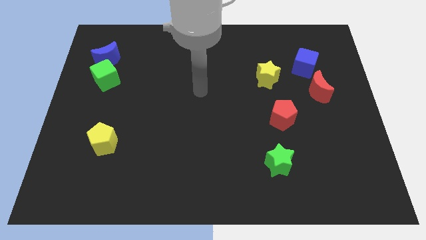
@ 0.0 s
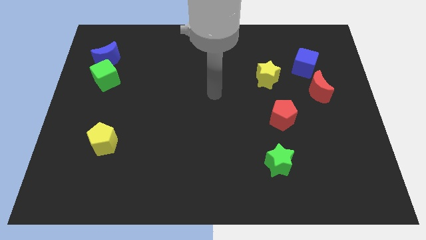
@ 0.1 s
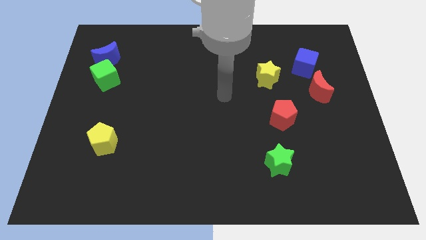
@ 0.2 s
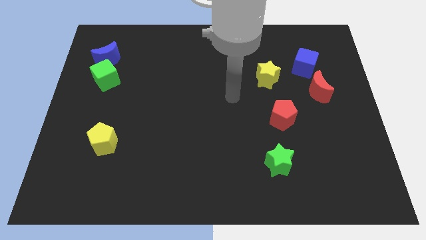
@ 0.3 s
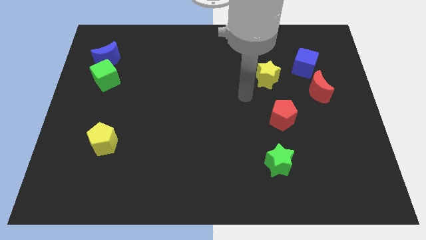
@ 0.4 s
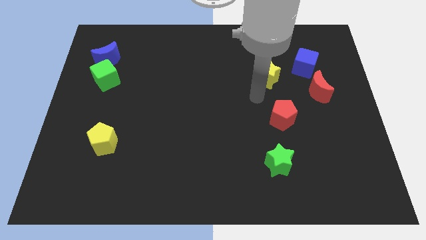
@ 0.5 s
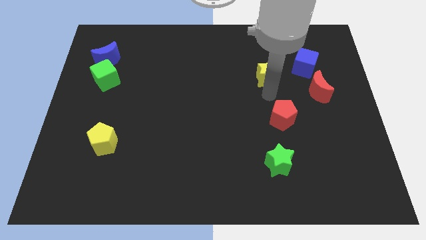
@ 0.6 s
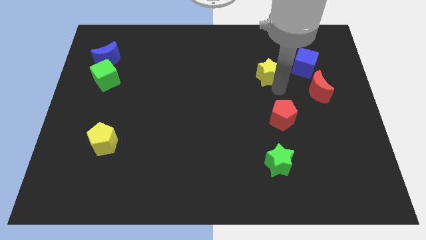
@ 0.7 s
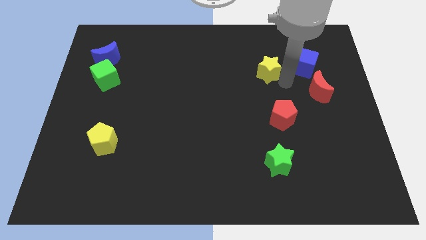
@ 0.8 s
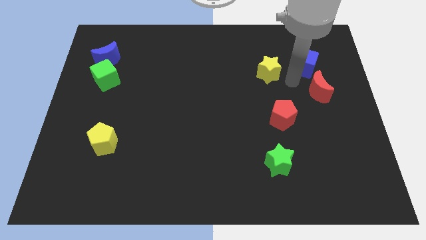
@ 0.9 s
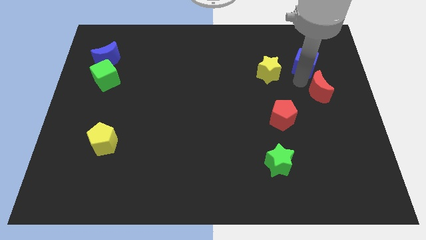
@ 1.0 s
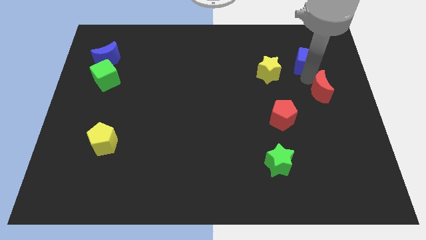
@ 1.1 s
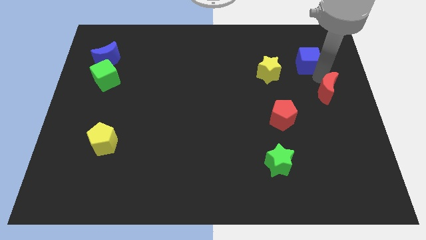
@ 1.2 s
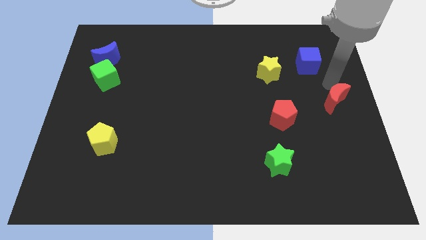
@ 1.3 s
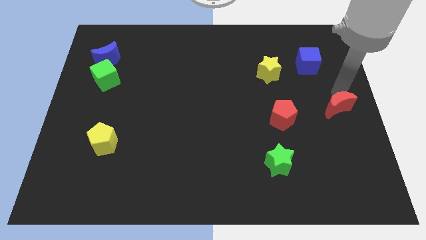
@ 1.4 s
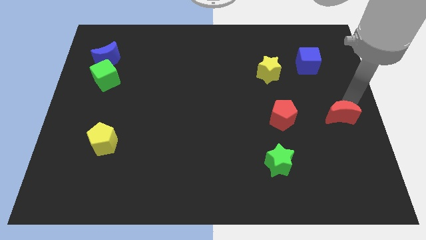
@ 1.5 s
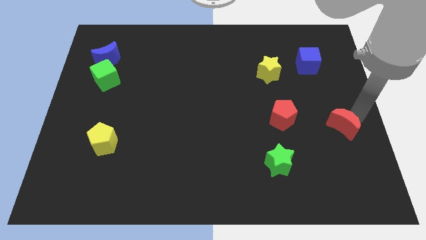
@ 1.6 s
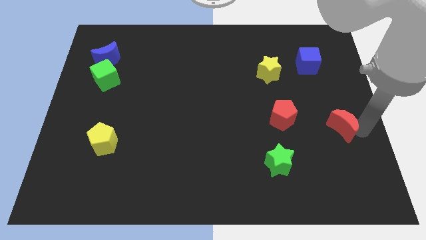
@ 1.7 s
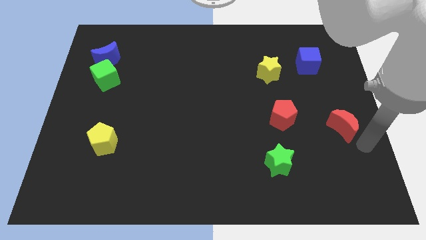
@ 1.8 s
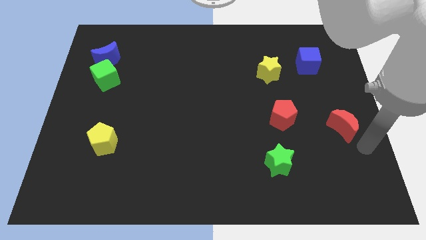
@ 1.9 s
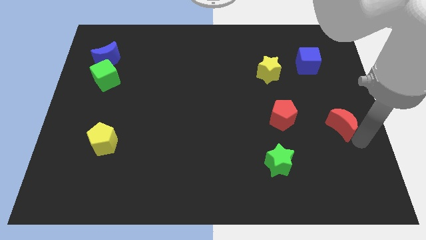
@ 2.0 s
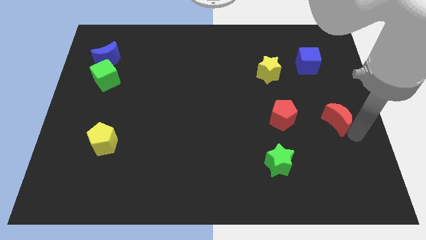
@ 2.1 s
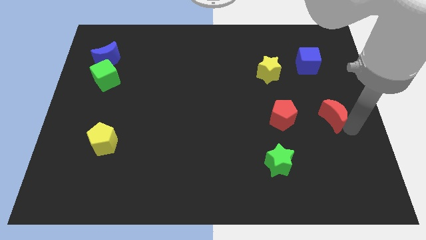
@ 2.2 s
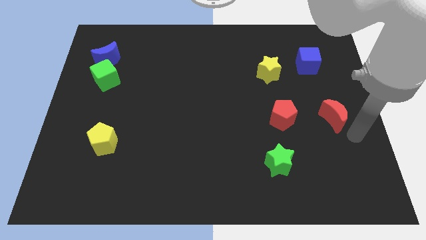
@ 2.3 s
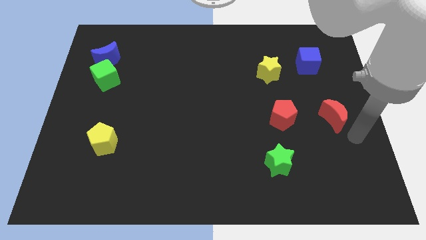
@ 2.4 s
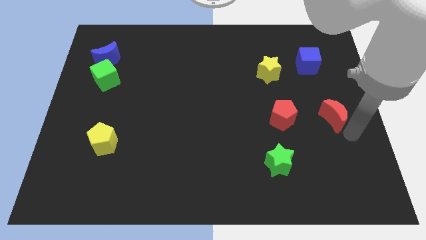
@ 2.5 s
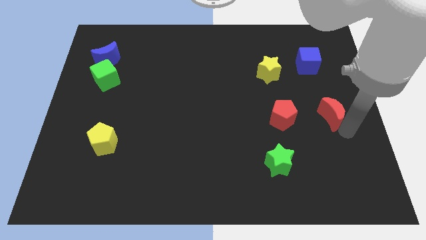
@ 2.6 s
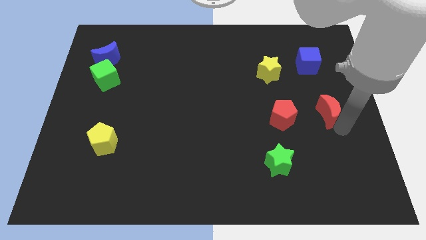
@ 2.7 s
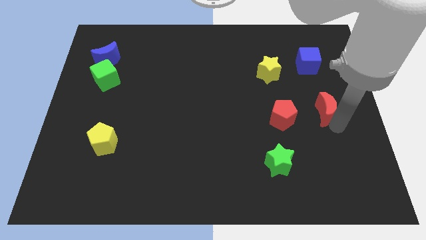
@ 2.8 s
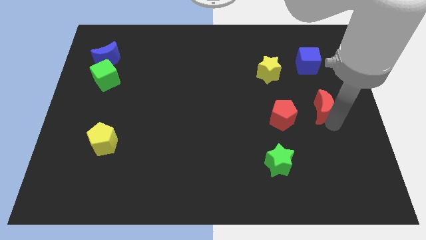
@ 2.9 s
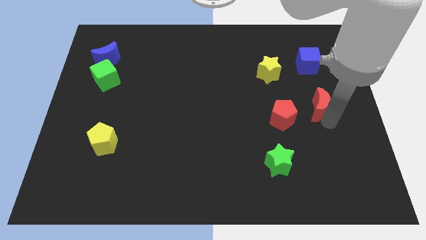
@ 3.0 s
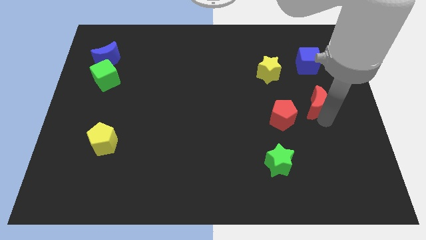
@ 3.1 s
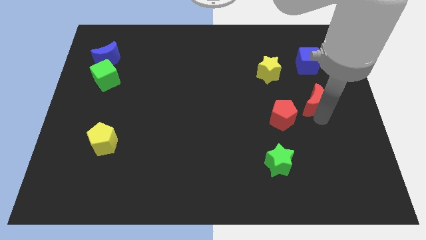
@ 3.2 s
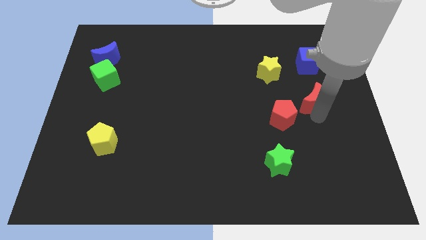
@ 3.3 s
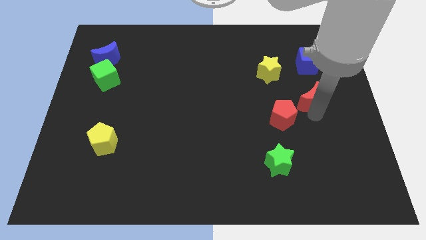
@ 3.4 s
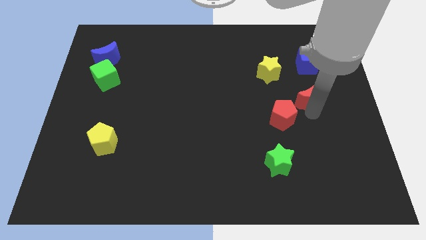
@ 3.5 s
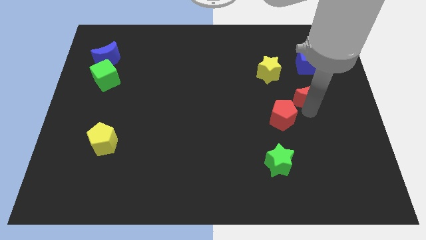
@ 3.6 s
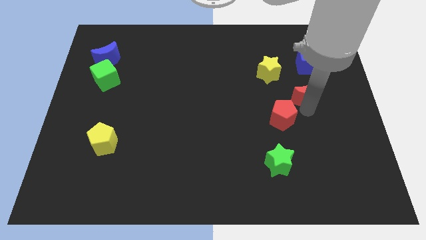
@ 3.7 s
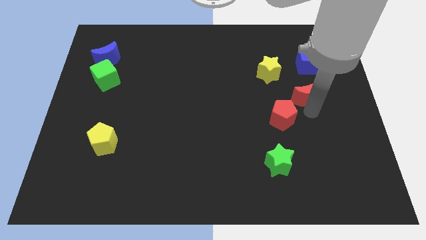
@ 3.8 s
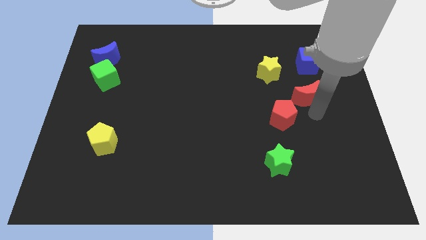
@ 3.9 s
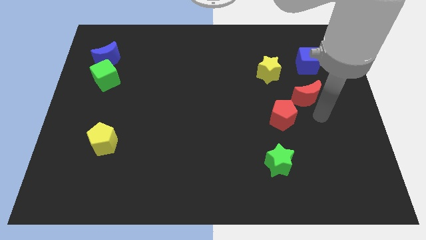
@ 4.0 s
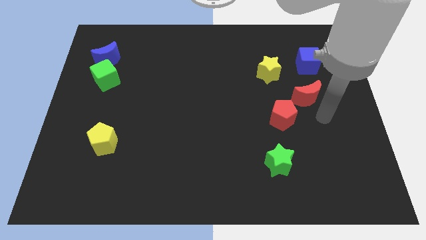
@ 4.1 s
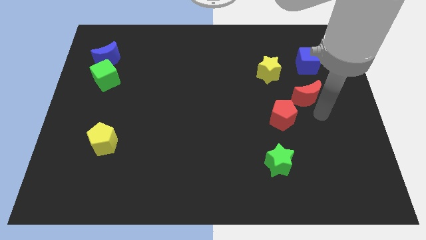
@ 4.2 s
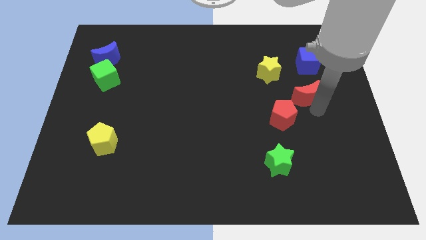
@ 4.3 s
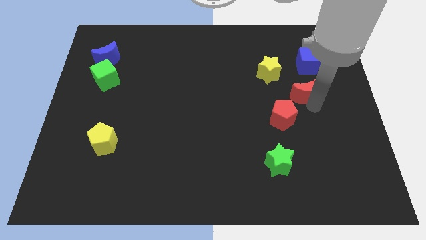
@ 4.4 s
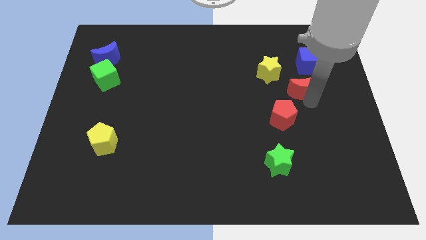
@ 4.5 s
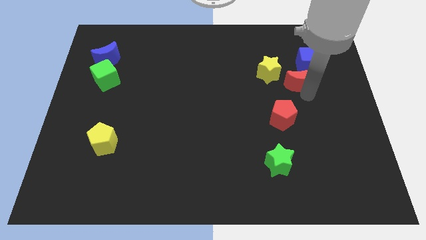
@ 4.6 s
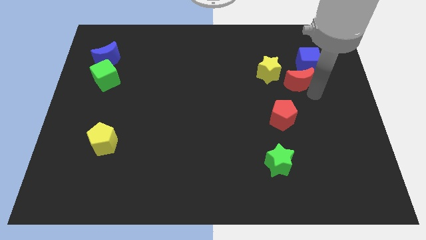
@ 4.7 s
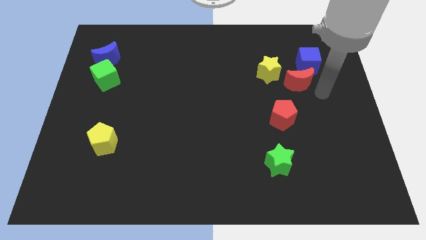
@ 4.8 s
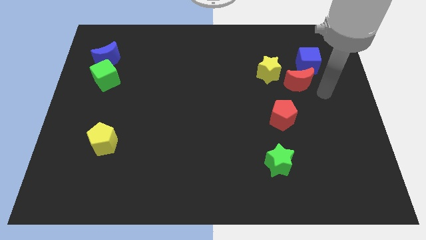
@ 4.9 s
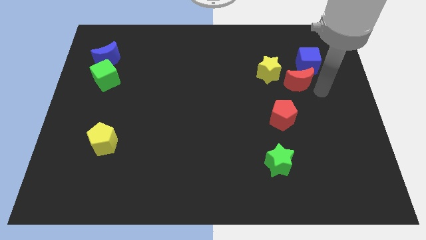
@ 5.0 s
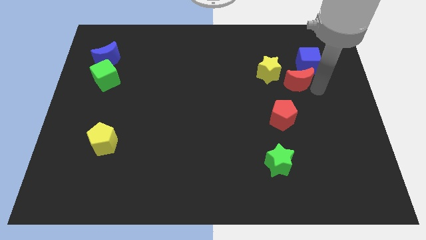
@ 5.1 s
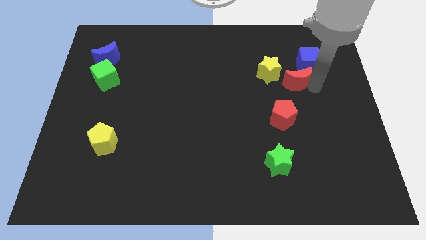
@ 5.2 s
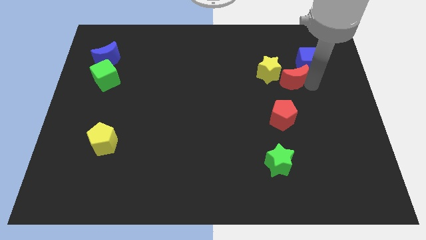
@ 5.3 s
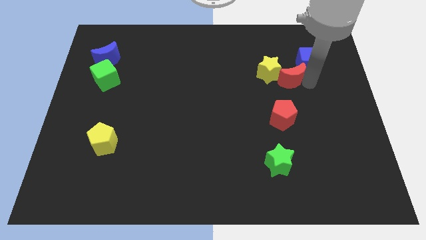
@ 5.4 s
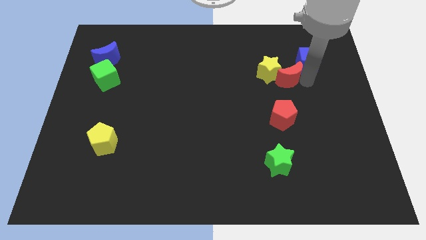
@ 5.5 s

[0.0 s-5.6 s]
put the red moon next to the yellow star

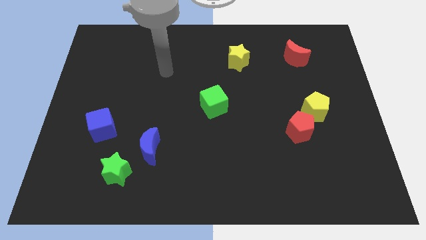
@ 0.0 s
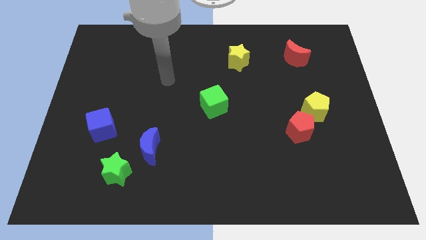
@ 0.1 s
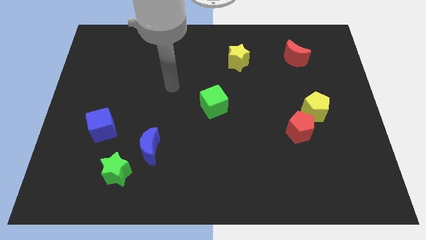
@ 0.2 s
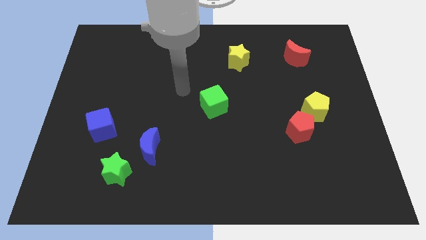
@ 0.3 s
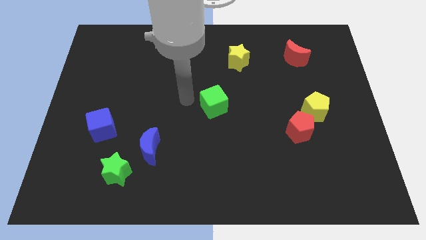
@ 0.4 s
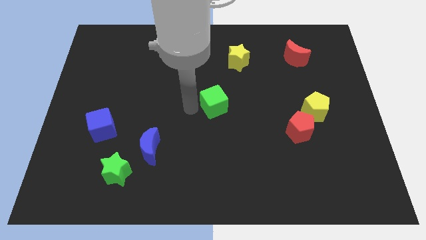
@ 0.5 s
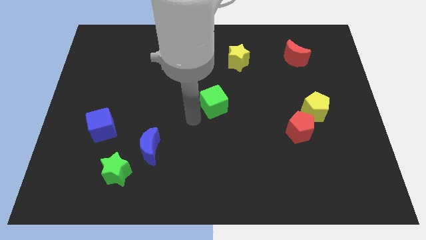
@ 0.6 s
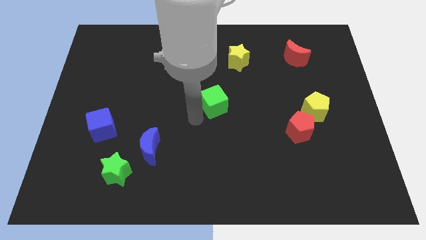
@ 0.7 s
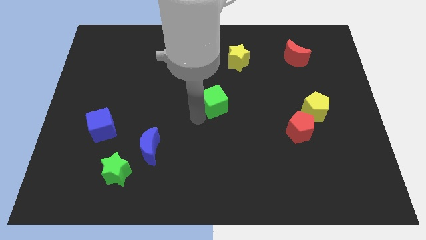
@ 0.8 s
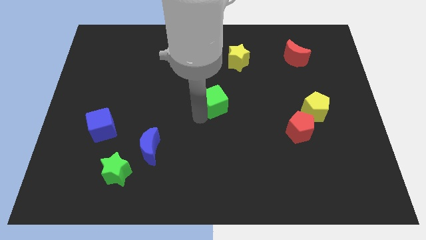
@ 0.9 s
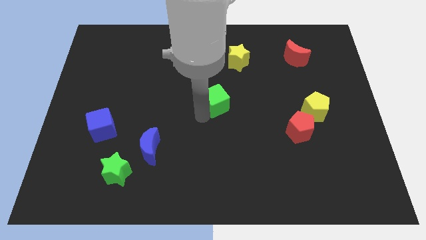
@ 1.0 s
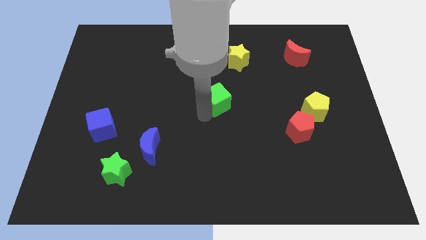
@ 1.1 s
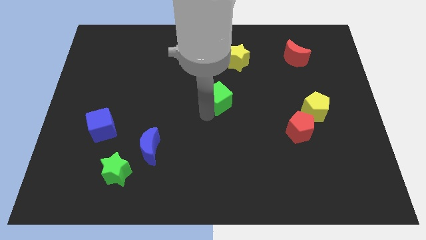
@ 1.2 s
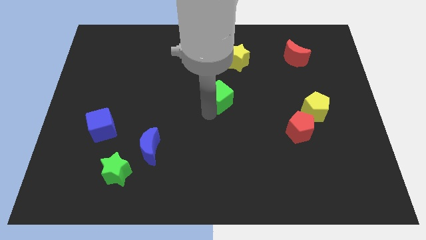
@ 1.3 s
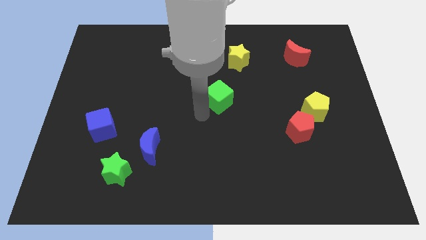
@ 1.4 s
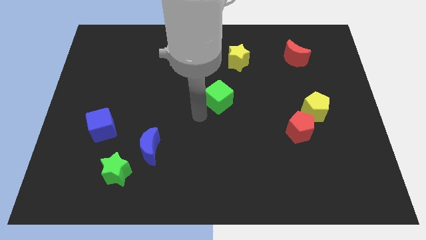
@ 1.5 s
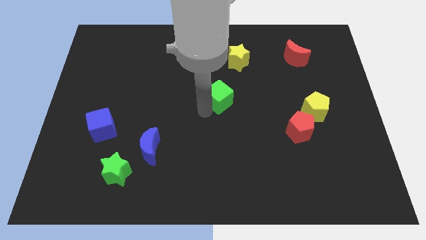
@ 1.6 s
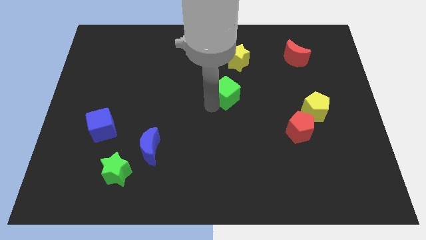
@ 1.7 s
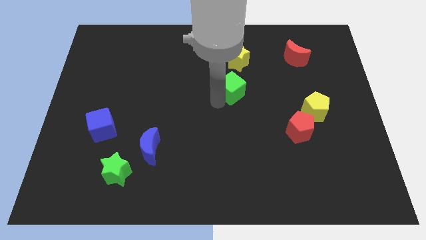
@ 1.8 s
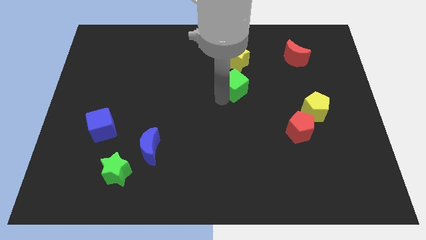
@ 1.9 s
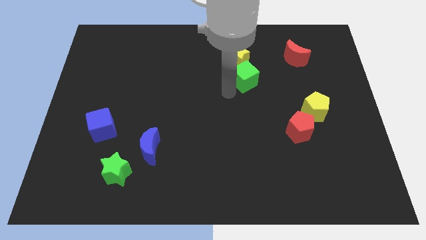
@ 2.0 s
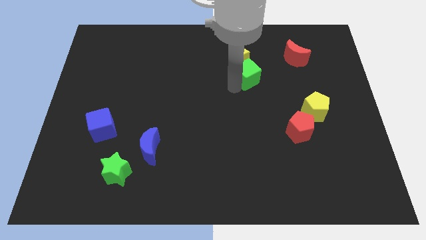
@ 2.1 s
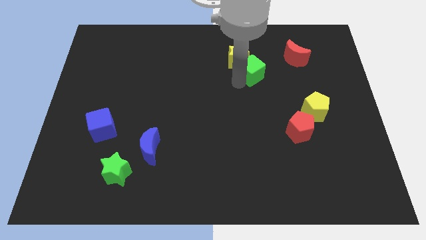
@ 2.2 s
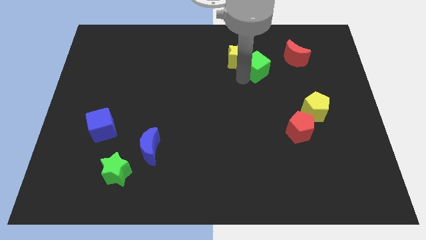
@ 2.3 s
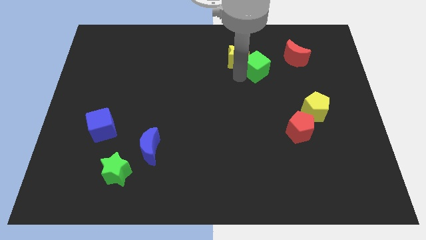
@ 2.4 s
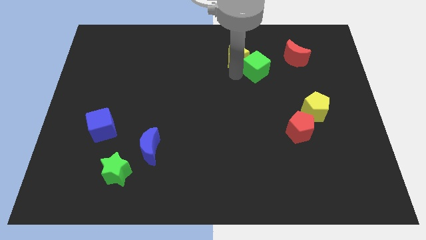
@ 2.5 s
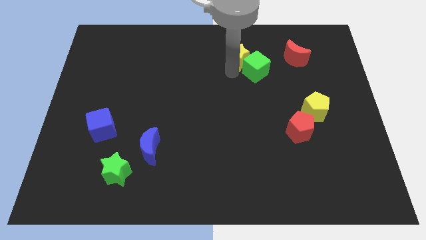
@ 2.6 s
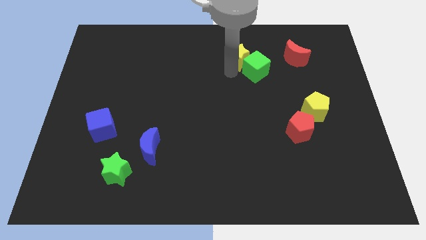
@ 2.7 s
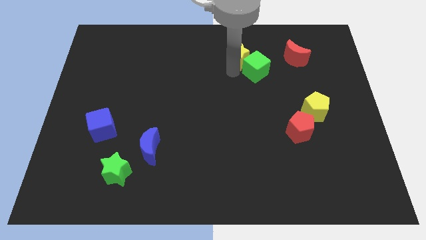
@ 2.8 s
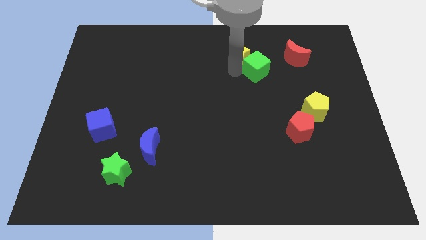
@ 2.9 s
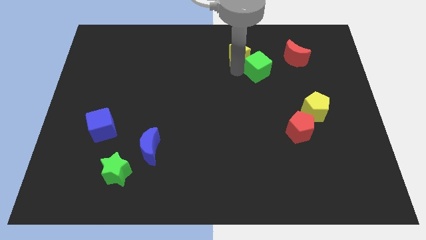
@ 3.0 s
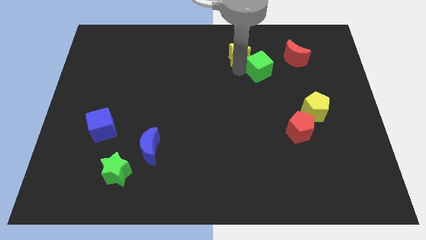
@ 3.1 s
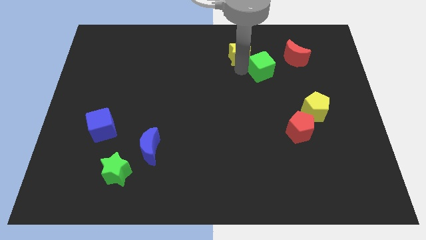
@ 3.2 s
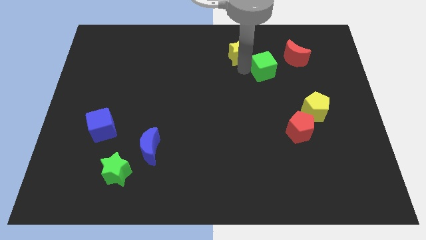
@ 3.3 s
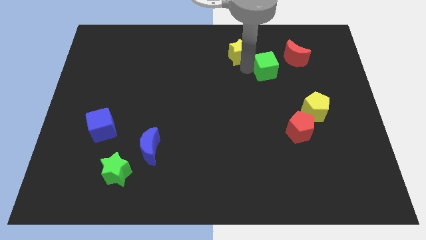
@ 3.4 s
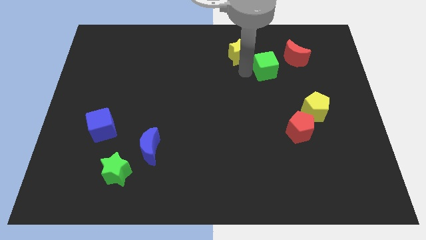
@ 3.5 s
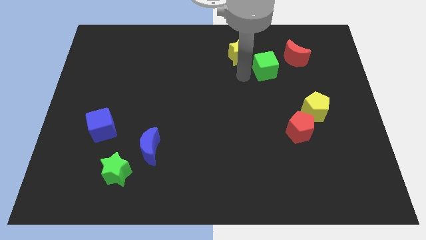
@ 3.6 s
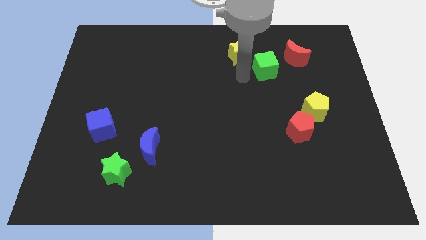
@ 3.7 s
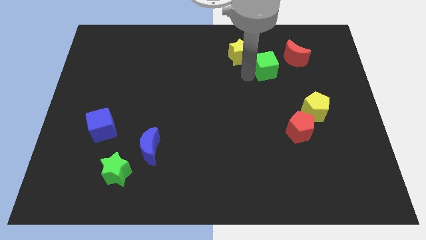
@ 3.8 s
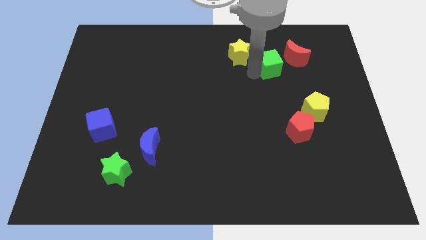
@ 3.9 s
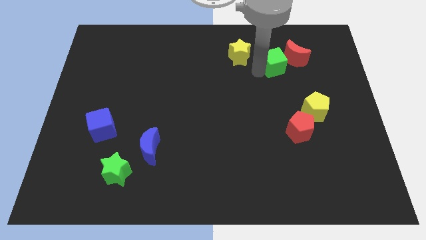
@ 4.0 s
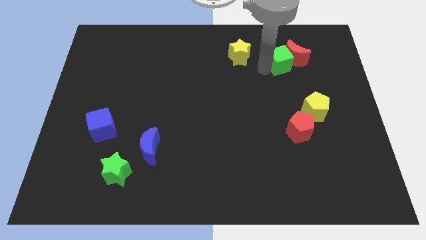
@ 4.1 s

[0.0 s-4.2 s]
put the green cube next to the red moon
